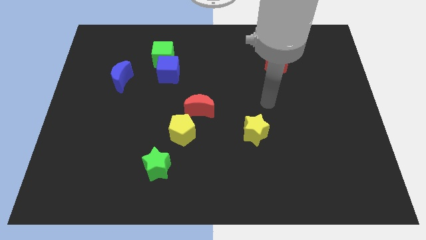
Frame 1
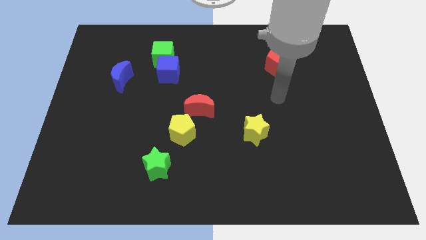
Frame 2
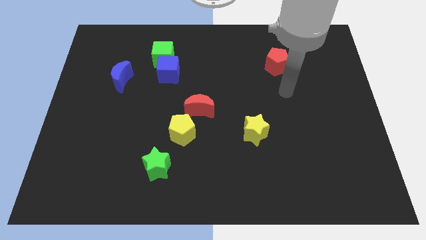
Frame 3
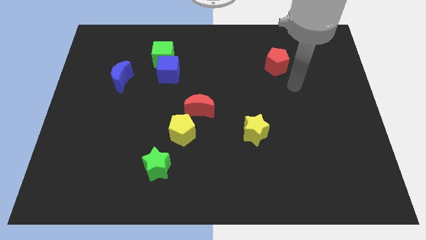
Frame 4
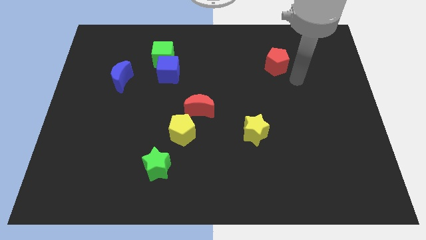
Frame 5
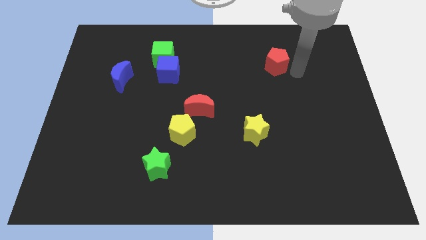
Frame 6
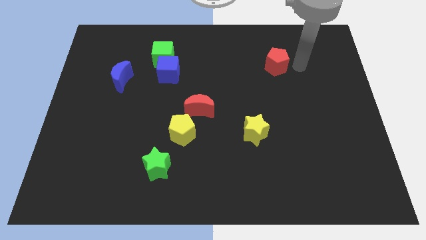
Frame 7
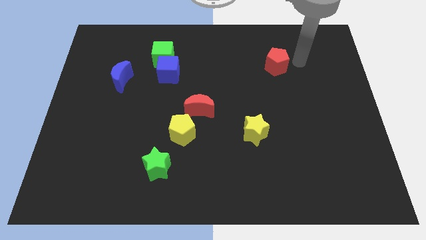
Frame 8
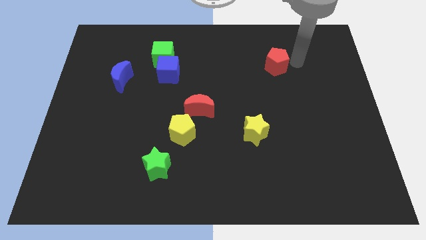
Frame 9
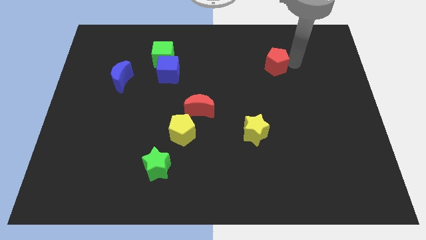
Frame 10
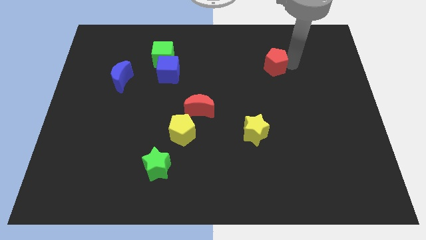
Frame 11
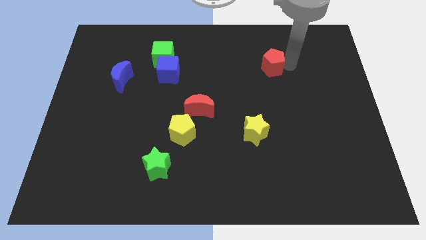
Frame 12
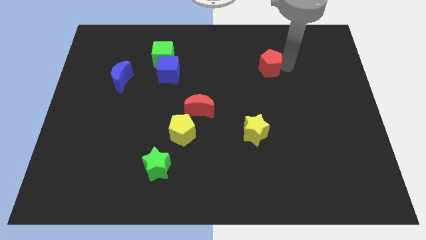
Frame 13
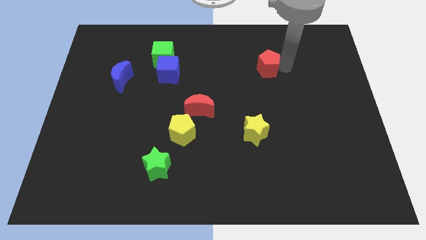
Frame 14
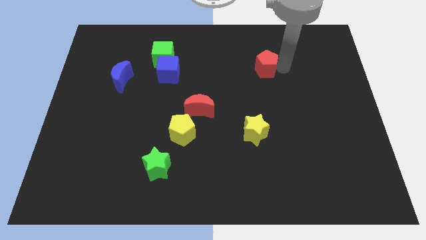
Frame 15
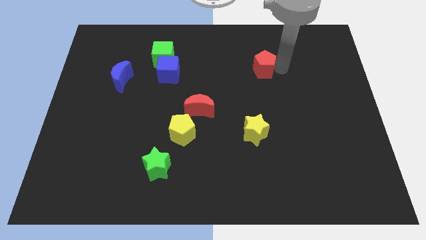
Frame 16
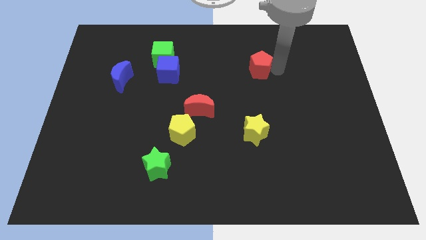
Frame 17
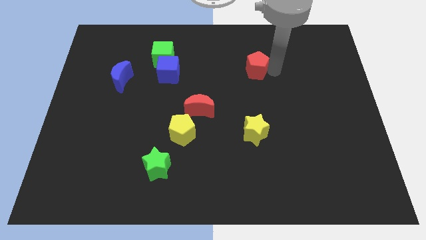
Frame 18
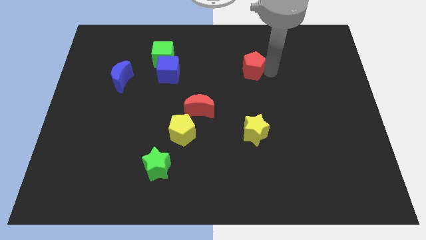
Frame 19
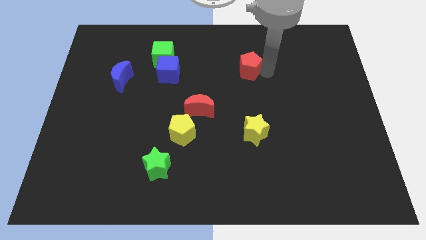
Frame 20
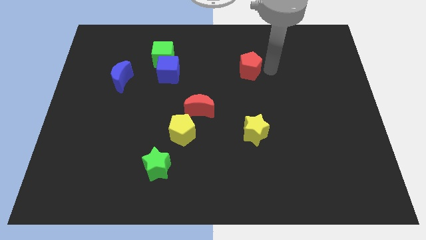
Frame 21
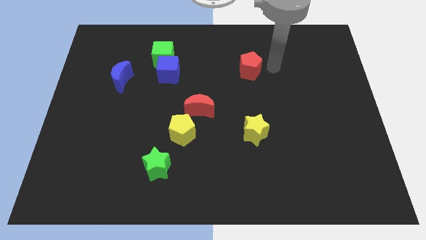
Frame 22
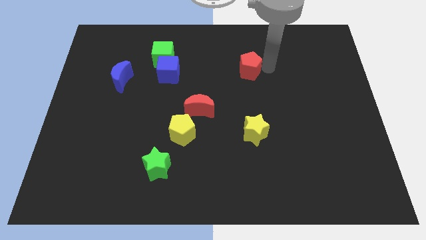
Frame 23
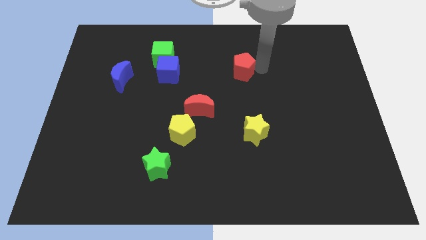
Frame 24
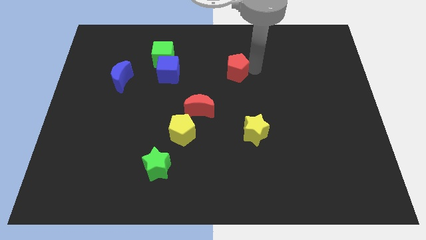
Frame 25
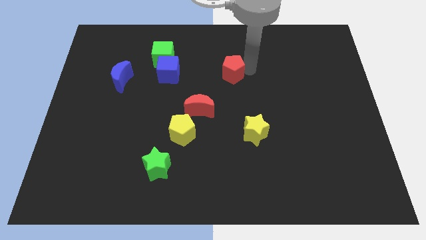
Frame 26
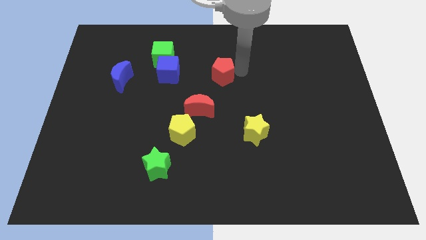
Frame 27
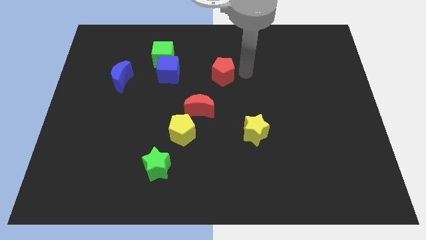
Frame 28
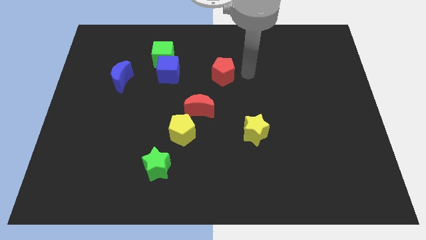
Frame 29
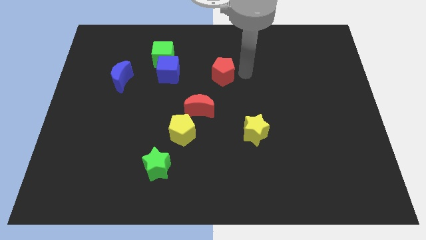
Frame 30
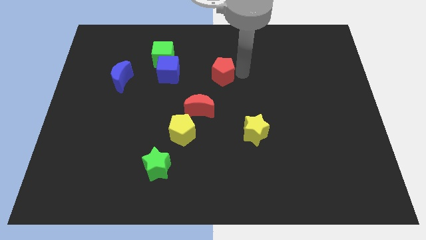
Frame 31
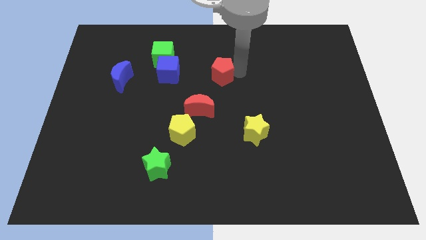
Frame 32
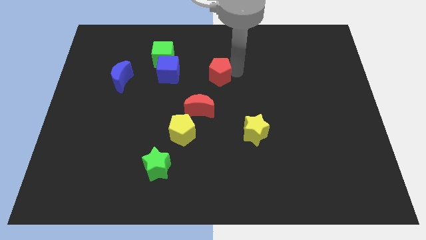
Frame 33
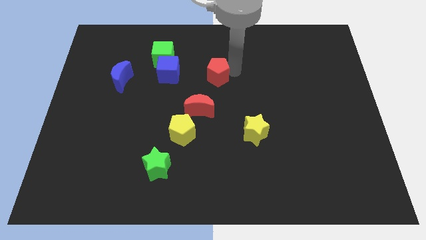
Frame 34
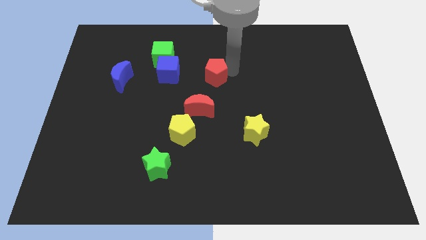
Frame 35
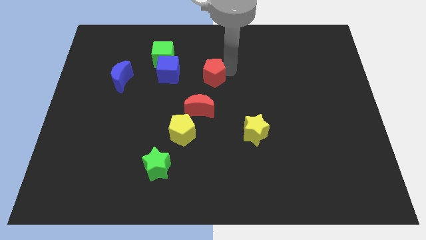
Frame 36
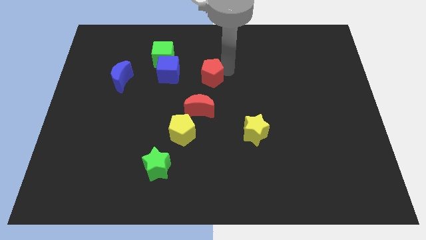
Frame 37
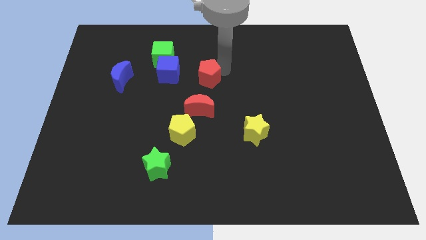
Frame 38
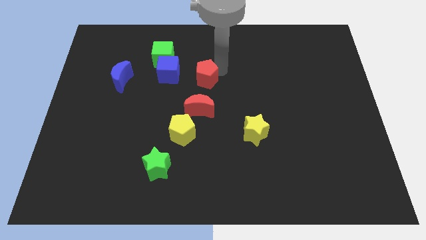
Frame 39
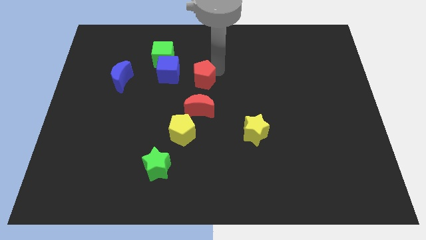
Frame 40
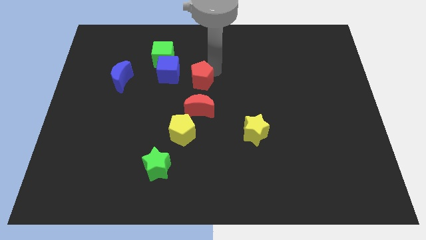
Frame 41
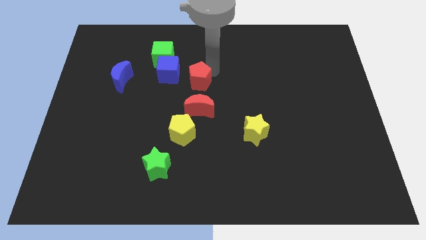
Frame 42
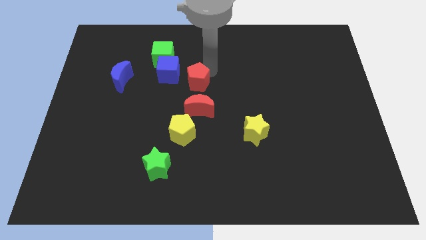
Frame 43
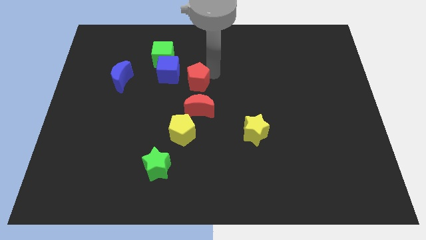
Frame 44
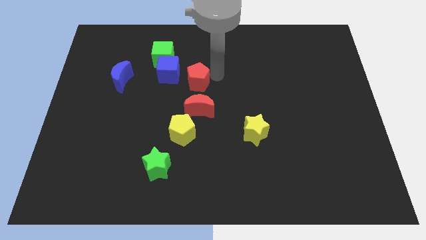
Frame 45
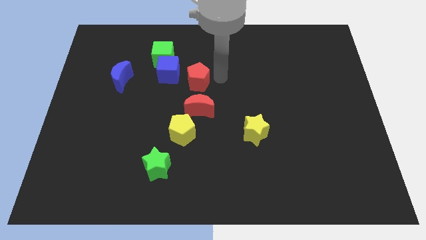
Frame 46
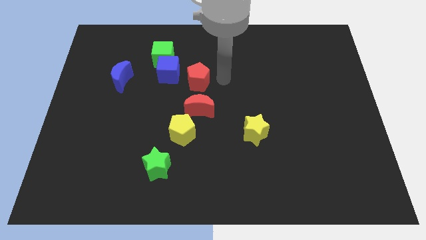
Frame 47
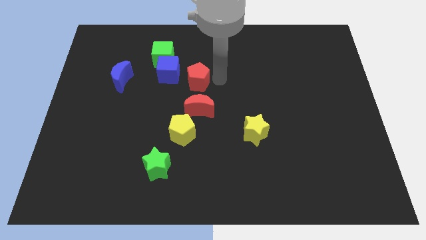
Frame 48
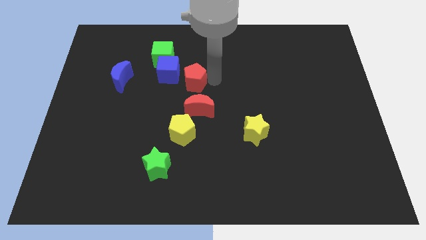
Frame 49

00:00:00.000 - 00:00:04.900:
slide the red pentagon to the left

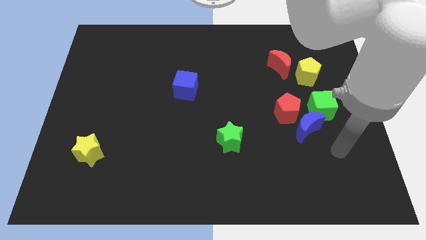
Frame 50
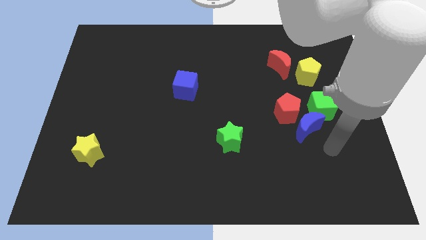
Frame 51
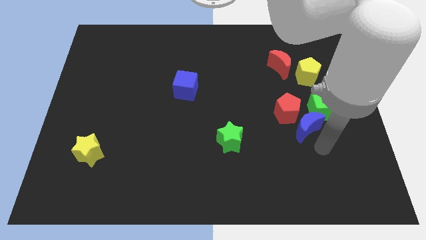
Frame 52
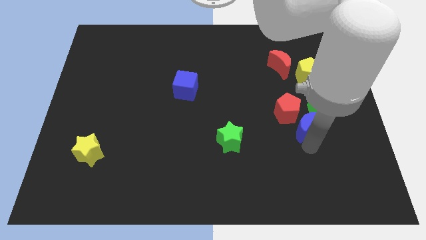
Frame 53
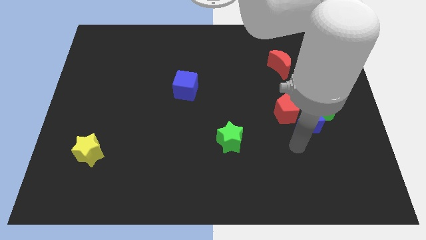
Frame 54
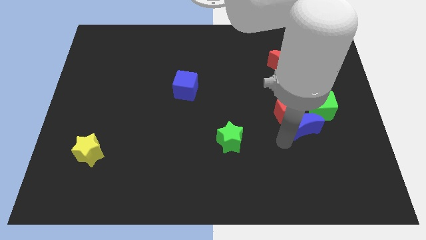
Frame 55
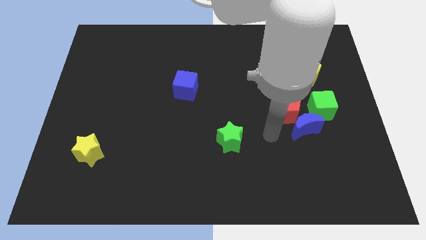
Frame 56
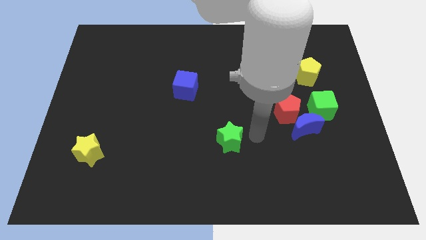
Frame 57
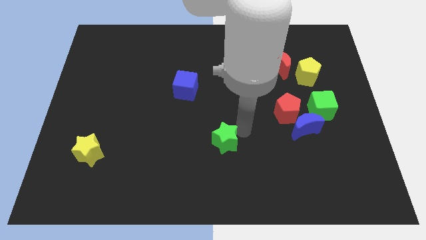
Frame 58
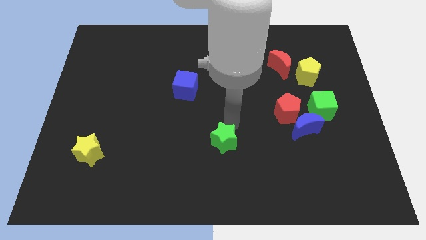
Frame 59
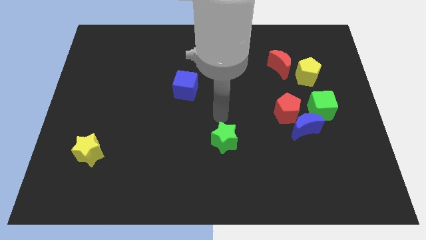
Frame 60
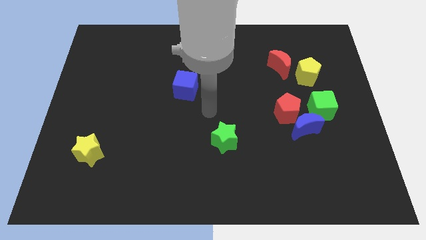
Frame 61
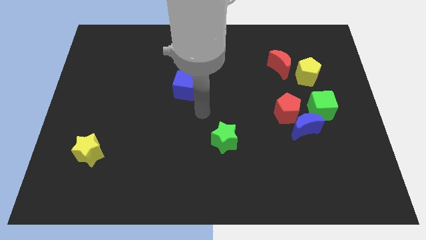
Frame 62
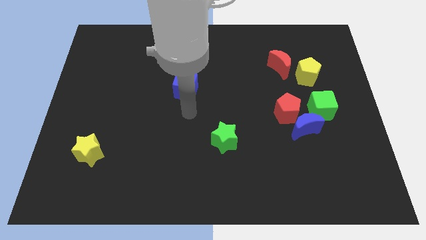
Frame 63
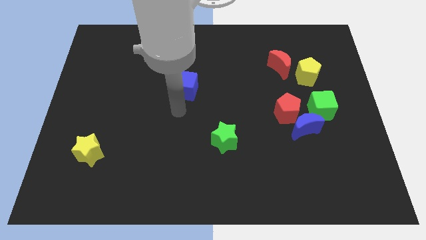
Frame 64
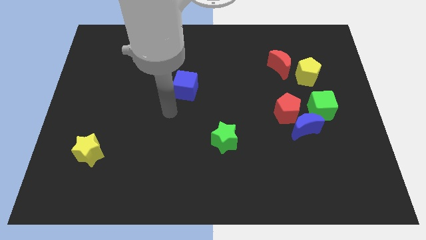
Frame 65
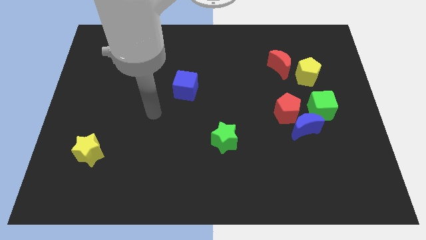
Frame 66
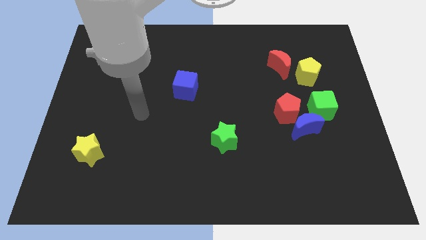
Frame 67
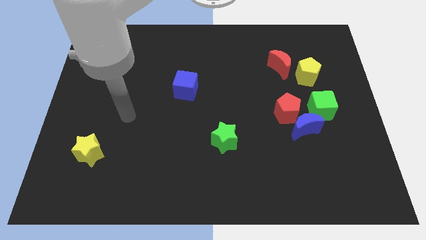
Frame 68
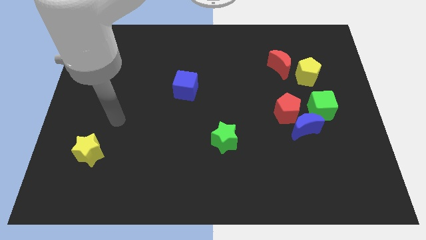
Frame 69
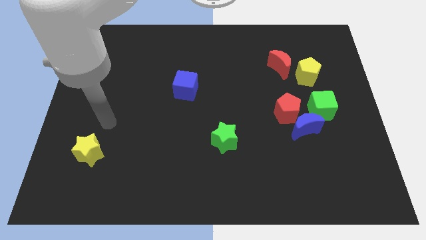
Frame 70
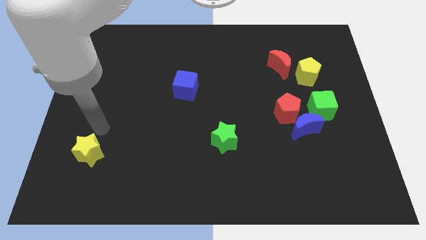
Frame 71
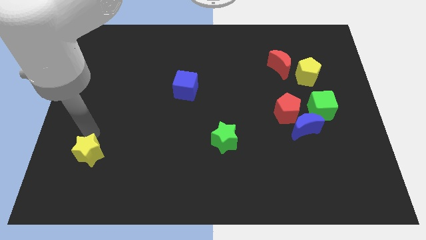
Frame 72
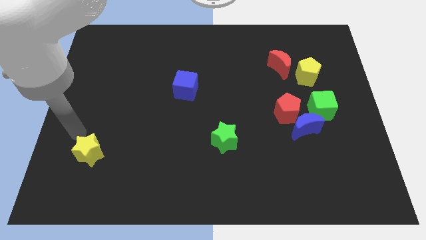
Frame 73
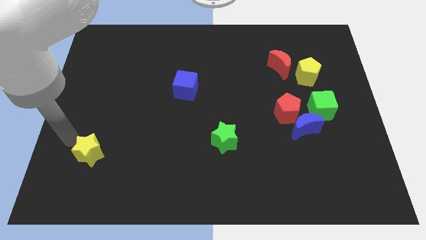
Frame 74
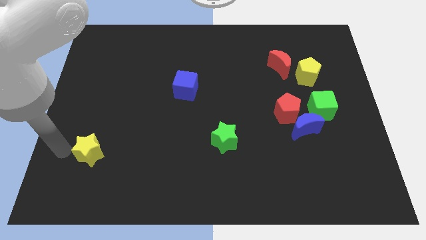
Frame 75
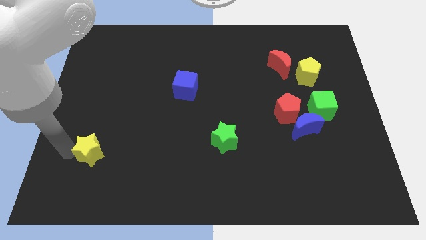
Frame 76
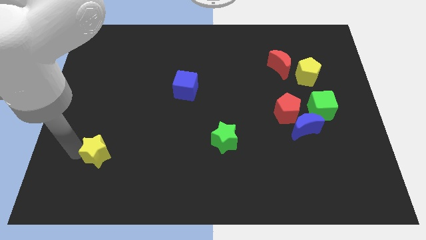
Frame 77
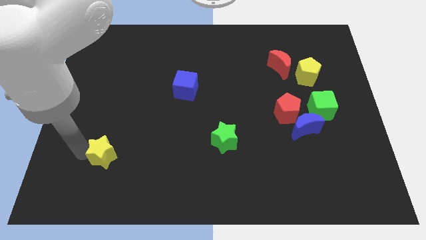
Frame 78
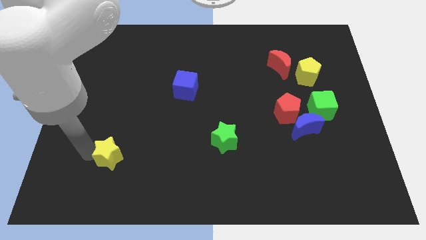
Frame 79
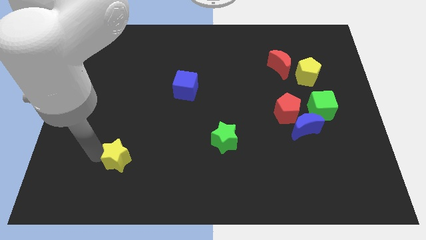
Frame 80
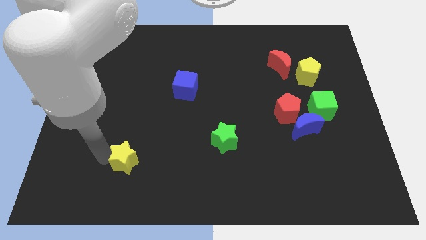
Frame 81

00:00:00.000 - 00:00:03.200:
slightly push the yellow star right
